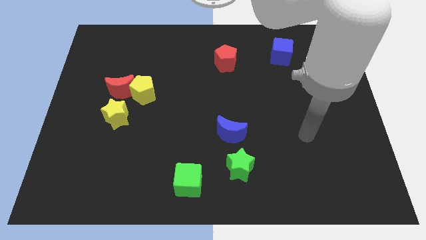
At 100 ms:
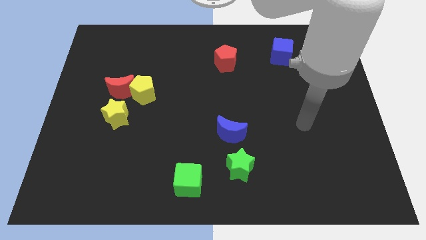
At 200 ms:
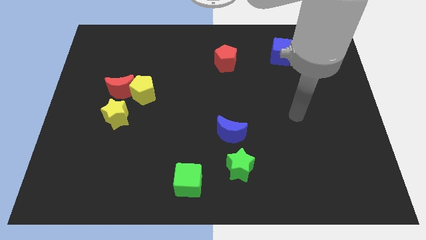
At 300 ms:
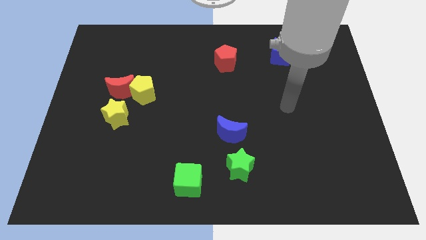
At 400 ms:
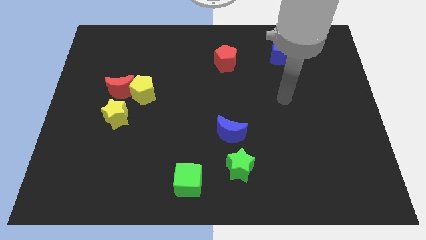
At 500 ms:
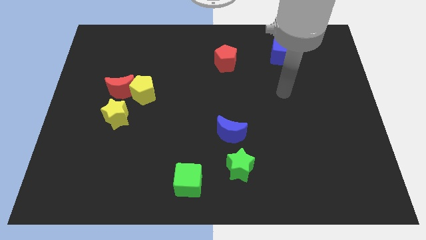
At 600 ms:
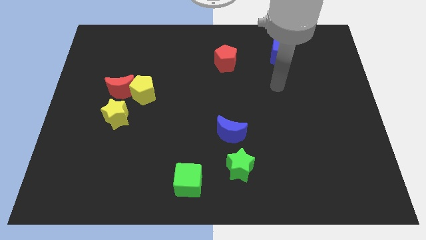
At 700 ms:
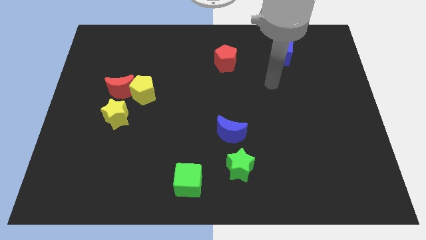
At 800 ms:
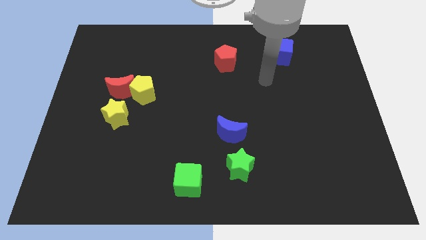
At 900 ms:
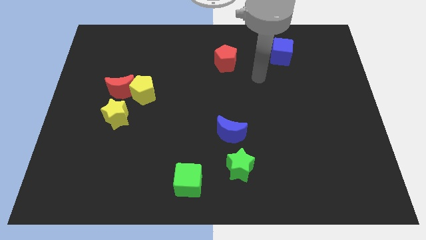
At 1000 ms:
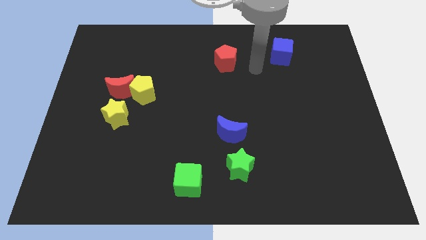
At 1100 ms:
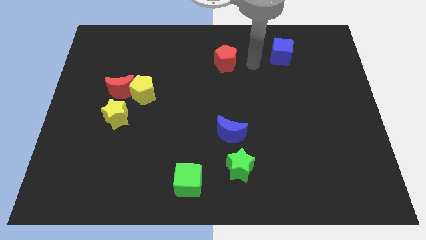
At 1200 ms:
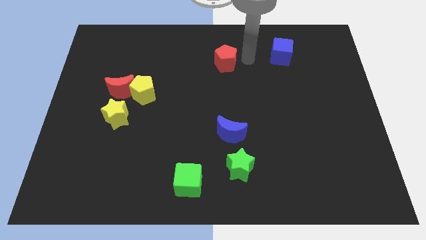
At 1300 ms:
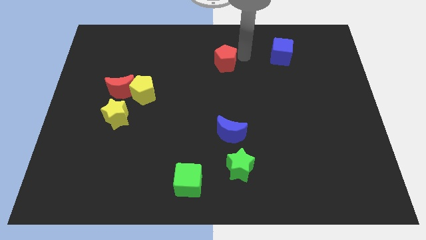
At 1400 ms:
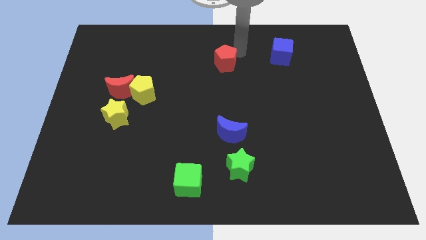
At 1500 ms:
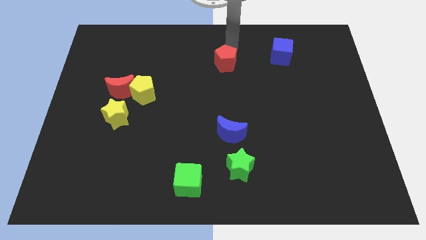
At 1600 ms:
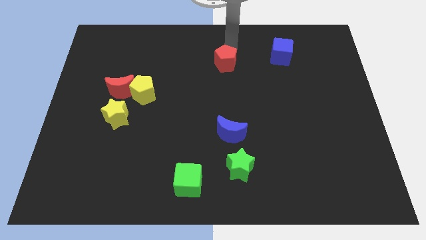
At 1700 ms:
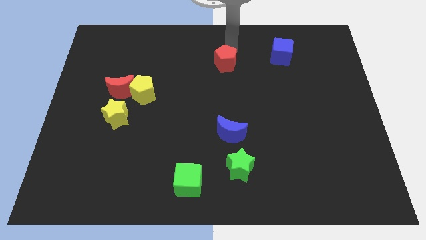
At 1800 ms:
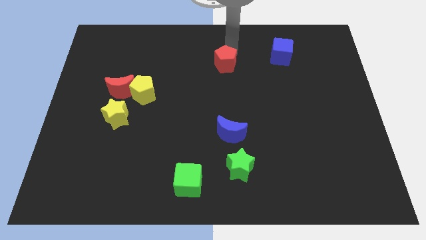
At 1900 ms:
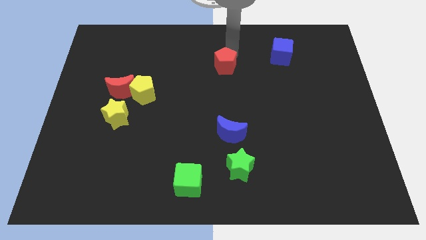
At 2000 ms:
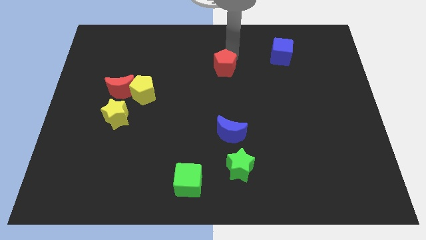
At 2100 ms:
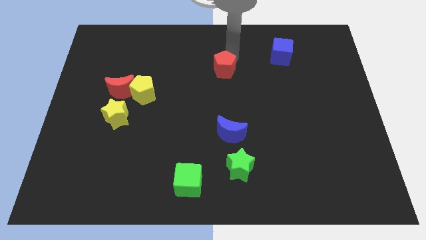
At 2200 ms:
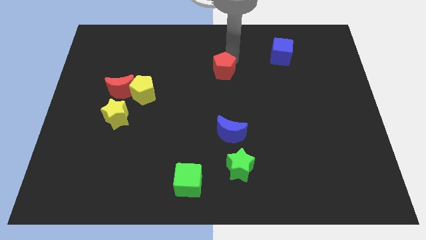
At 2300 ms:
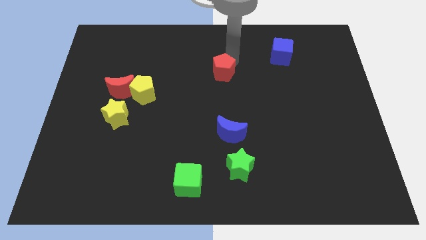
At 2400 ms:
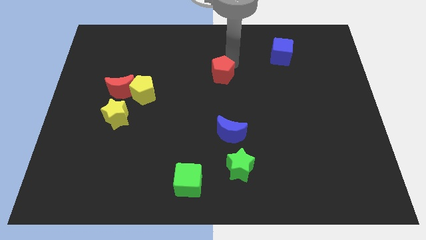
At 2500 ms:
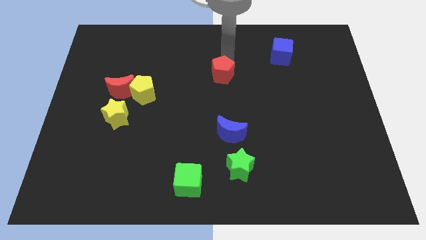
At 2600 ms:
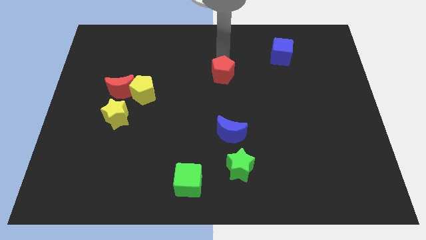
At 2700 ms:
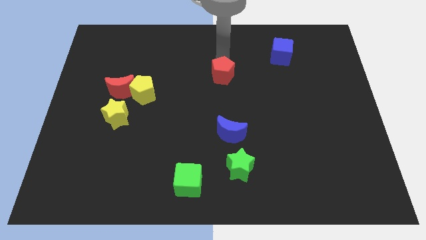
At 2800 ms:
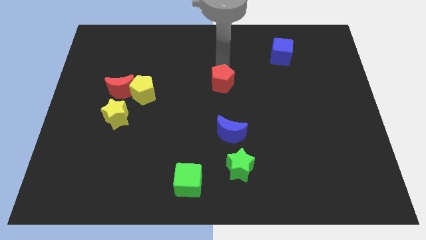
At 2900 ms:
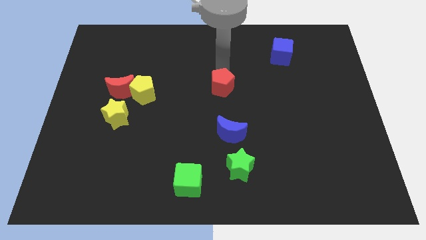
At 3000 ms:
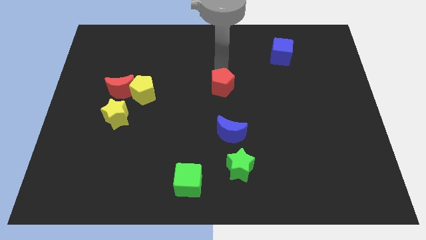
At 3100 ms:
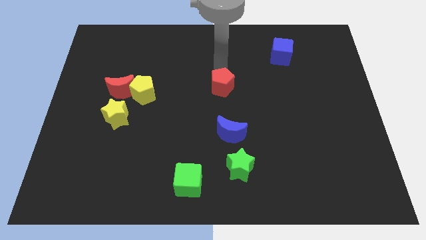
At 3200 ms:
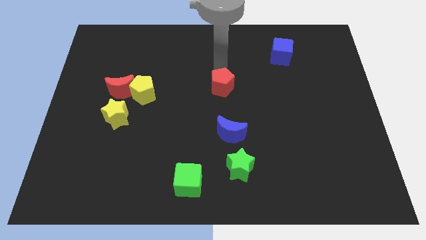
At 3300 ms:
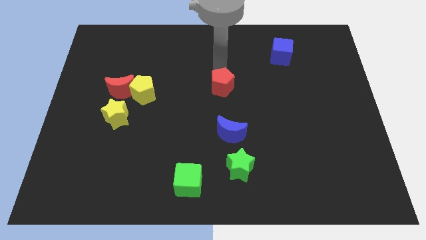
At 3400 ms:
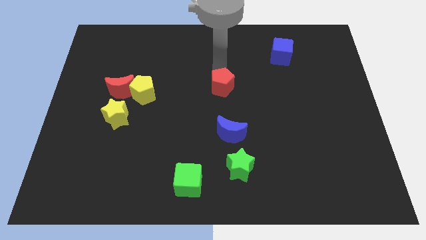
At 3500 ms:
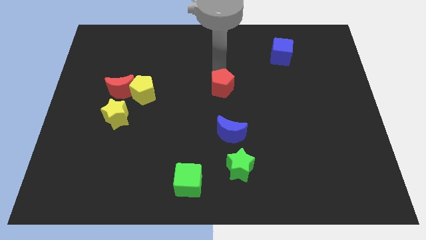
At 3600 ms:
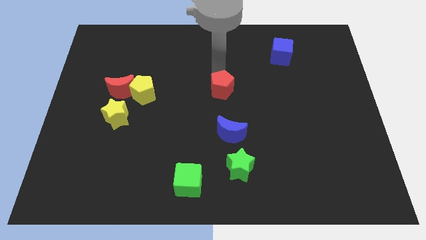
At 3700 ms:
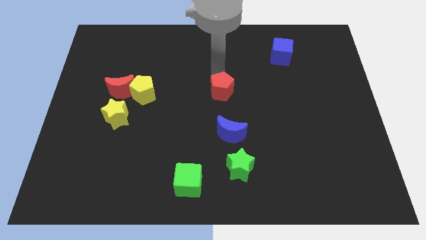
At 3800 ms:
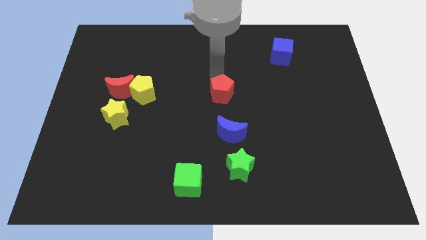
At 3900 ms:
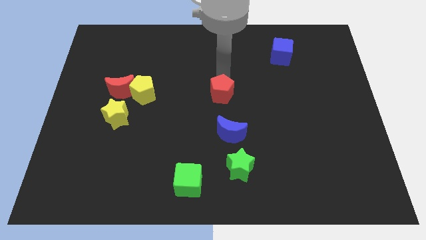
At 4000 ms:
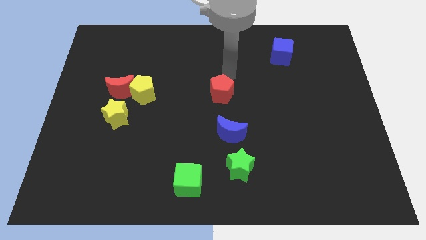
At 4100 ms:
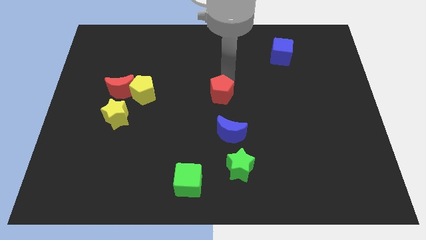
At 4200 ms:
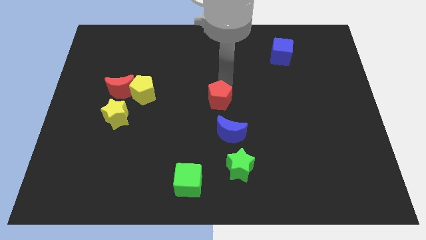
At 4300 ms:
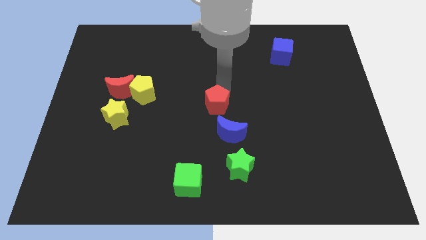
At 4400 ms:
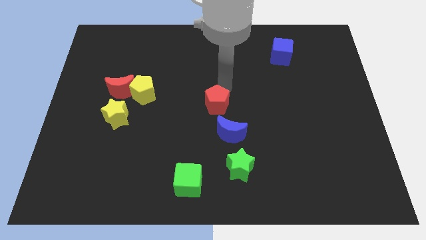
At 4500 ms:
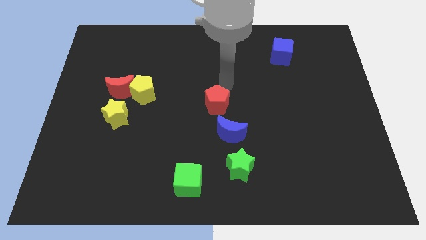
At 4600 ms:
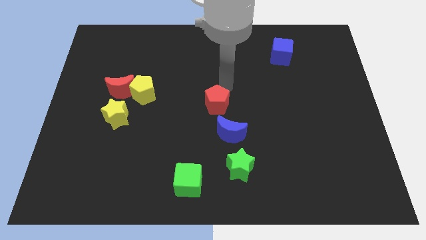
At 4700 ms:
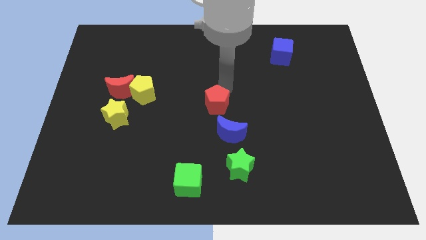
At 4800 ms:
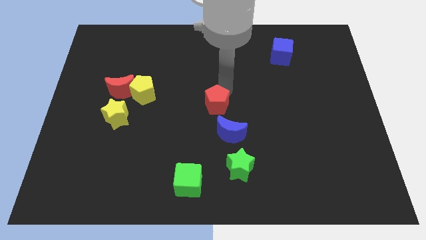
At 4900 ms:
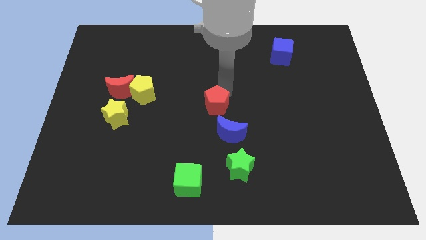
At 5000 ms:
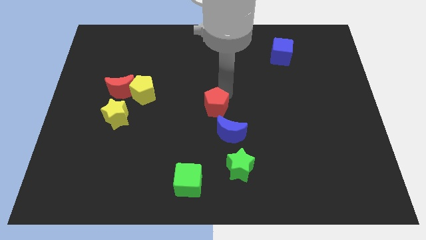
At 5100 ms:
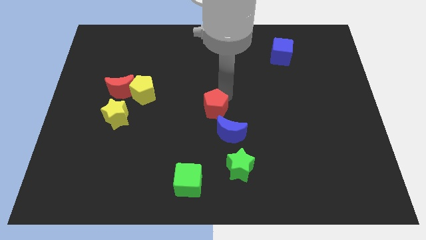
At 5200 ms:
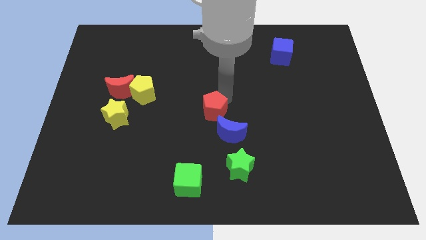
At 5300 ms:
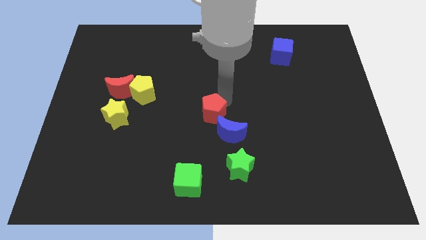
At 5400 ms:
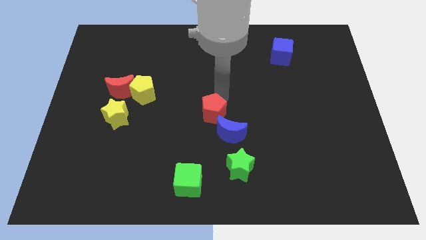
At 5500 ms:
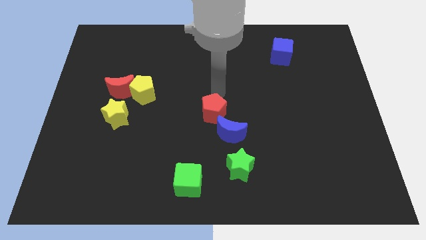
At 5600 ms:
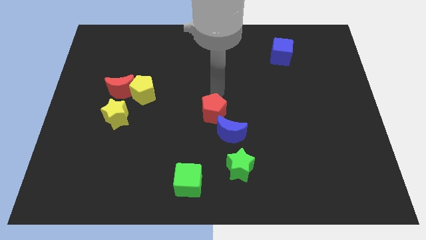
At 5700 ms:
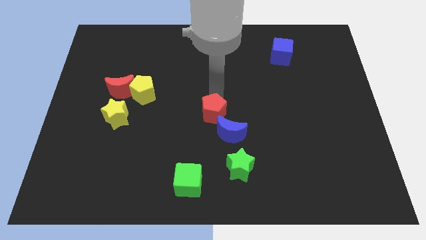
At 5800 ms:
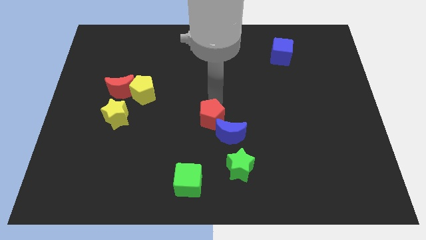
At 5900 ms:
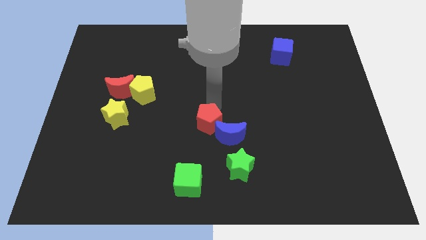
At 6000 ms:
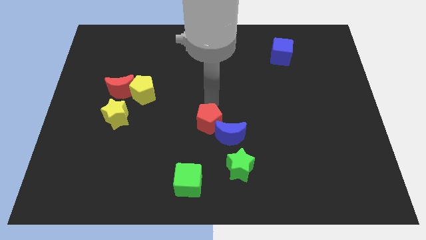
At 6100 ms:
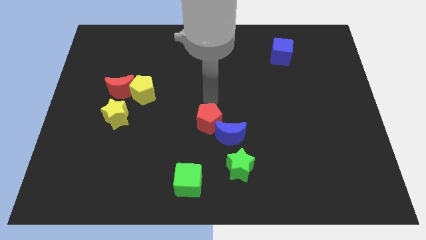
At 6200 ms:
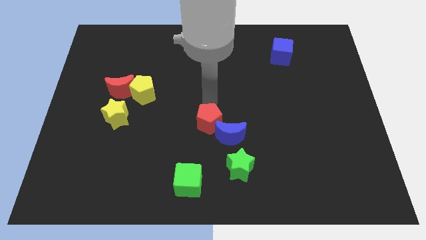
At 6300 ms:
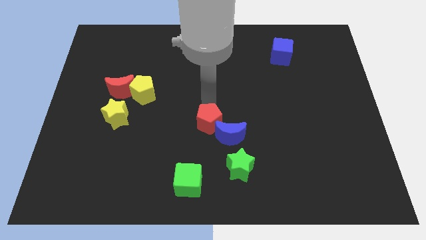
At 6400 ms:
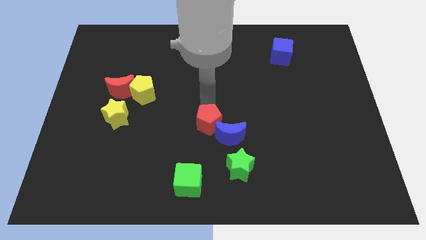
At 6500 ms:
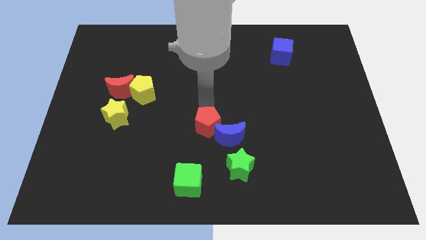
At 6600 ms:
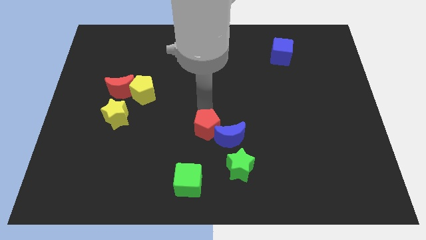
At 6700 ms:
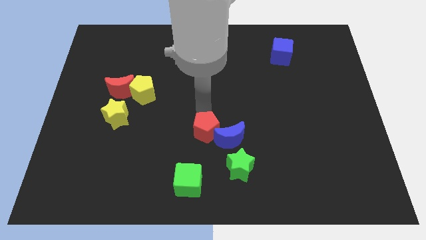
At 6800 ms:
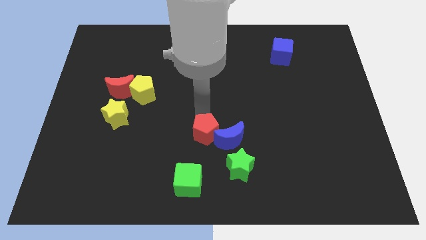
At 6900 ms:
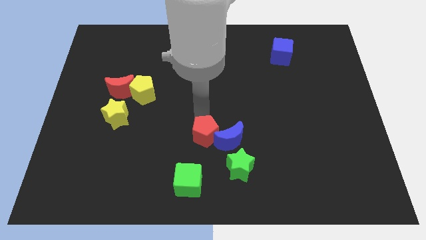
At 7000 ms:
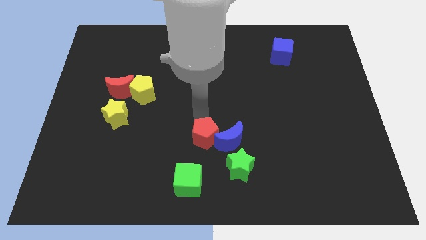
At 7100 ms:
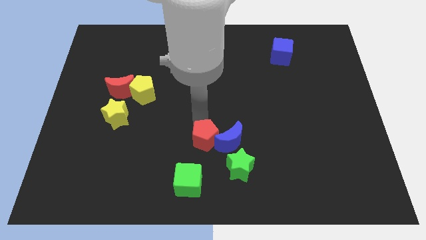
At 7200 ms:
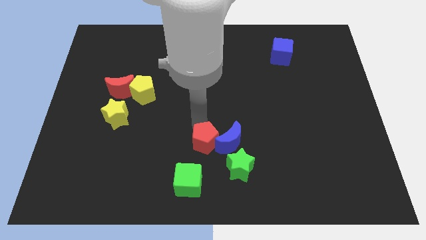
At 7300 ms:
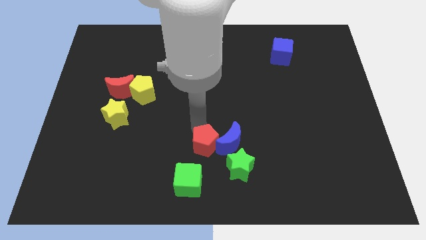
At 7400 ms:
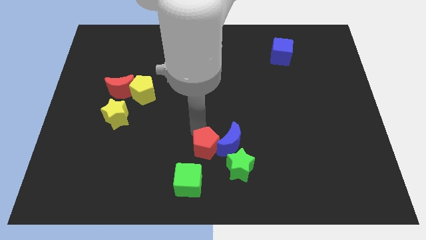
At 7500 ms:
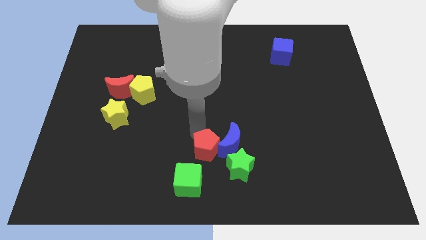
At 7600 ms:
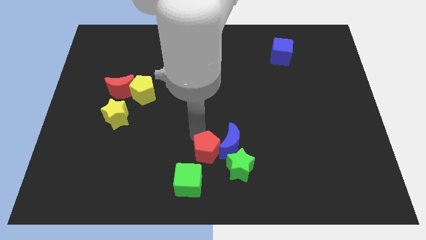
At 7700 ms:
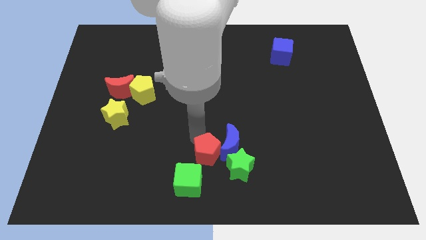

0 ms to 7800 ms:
slide the red pentagon to the bottom side
